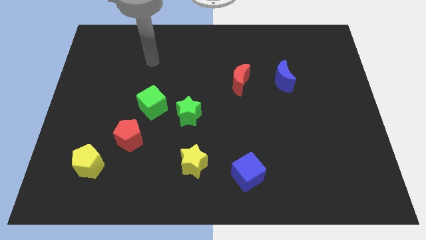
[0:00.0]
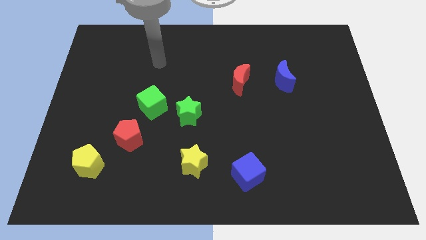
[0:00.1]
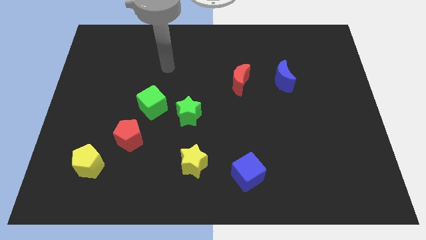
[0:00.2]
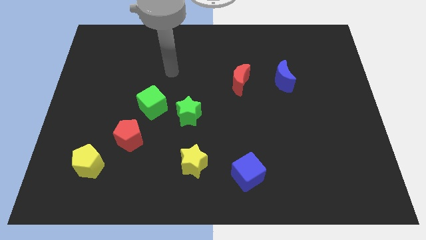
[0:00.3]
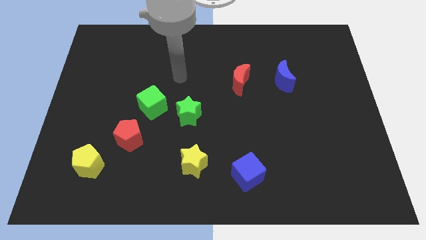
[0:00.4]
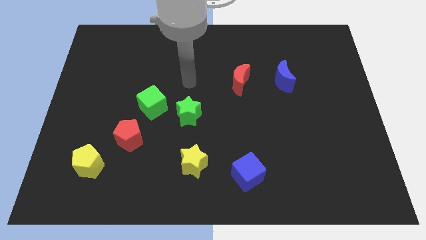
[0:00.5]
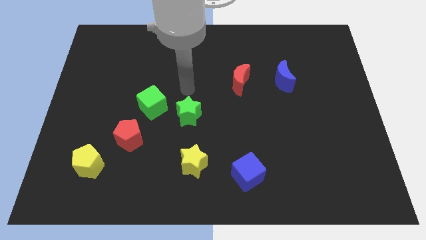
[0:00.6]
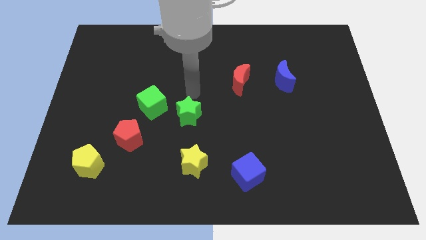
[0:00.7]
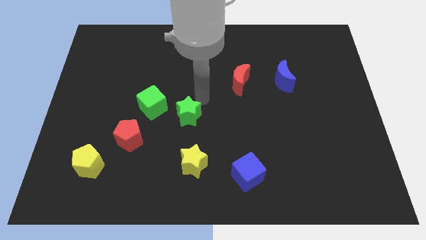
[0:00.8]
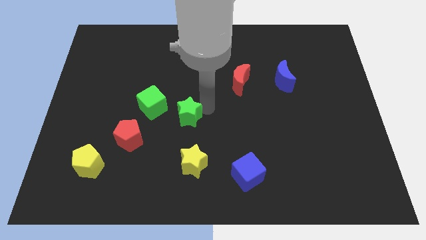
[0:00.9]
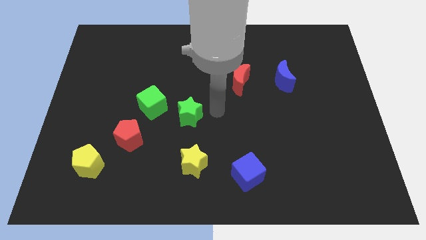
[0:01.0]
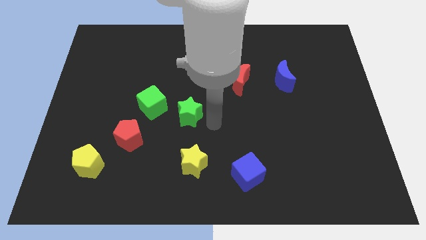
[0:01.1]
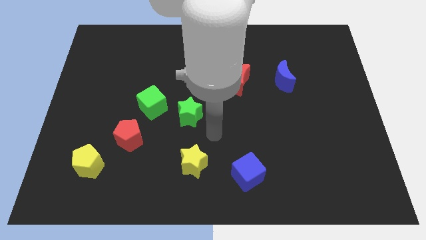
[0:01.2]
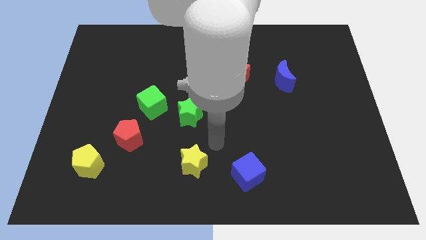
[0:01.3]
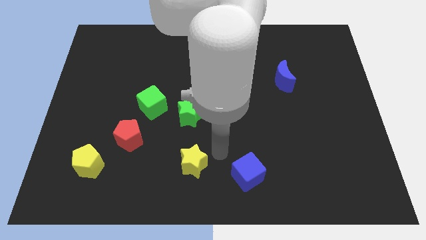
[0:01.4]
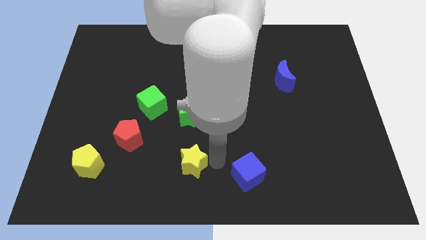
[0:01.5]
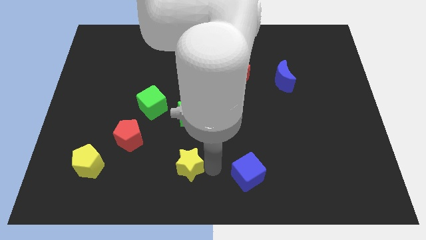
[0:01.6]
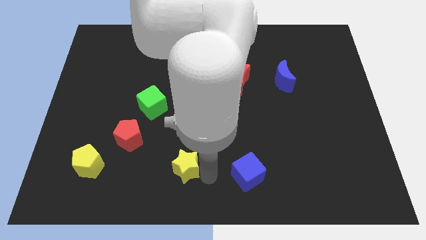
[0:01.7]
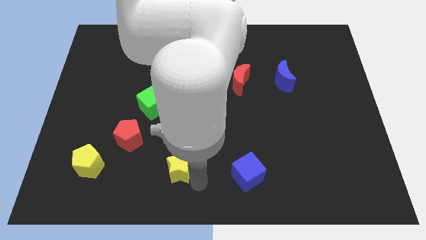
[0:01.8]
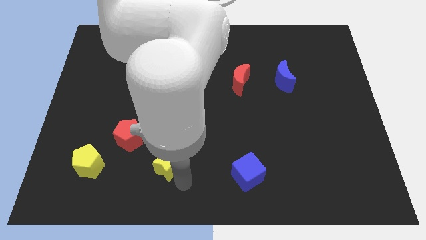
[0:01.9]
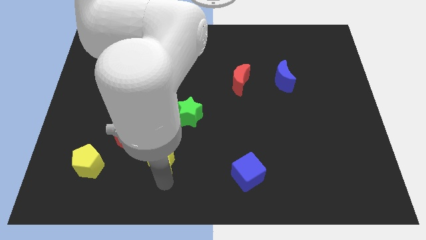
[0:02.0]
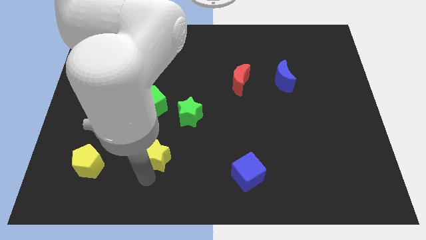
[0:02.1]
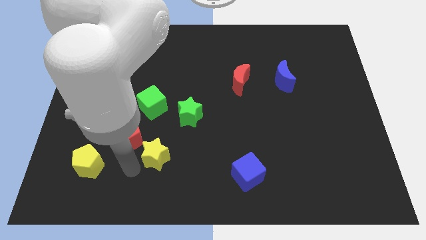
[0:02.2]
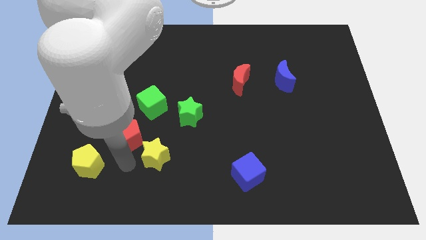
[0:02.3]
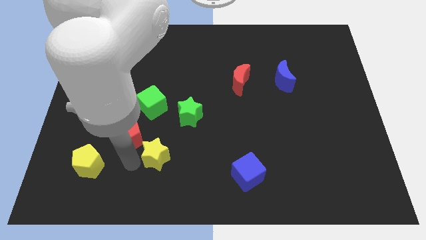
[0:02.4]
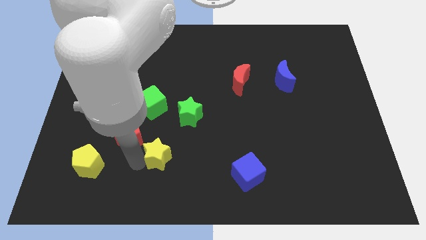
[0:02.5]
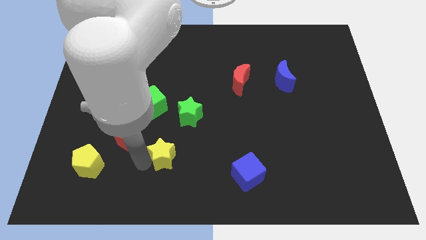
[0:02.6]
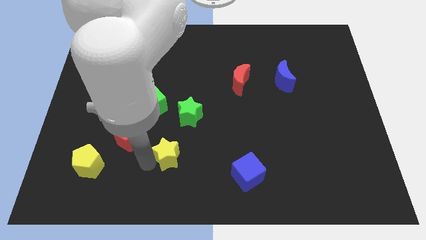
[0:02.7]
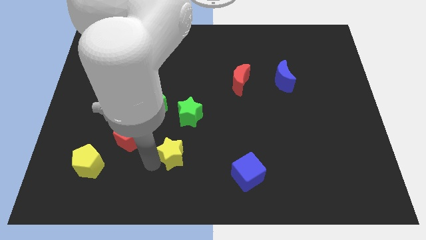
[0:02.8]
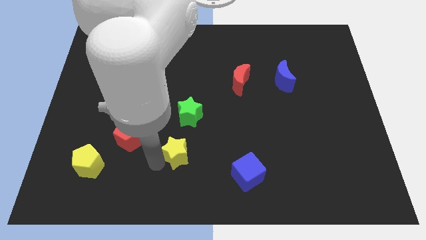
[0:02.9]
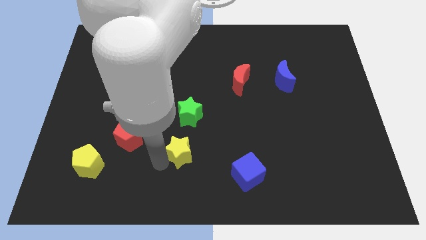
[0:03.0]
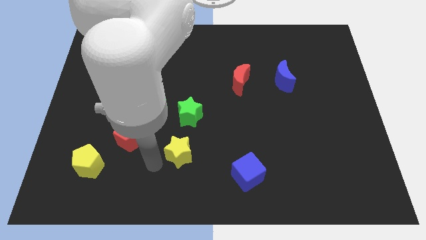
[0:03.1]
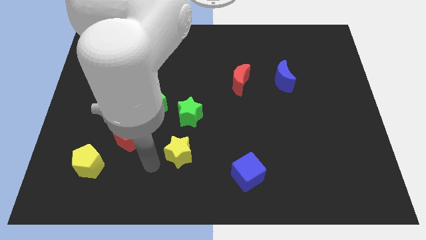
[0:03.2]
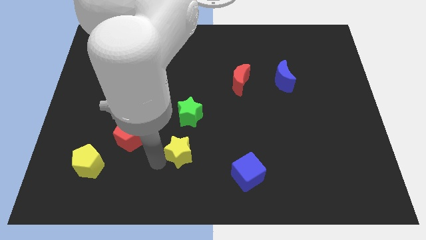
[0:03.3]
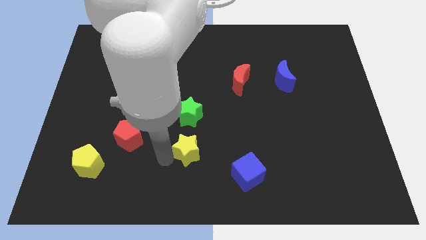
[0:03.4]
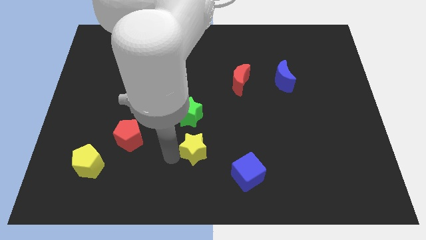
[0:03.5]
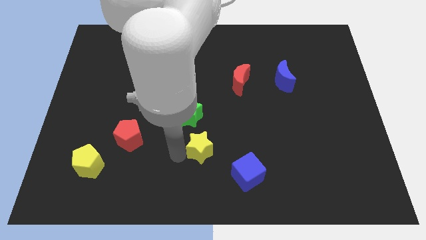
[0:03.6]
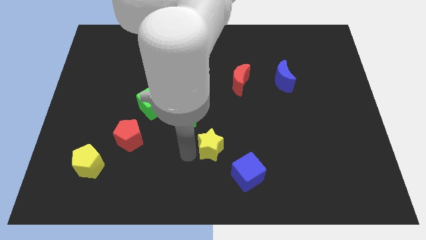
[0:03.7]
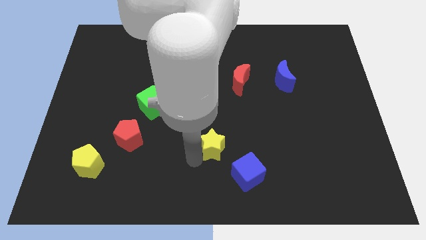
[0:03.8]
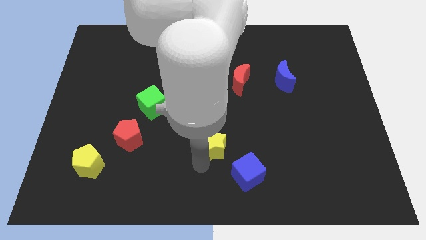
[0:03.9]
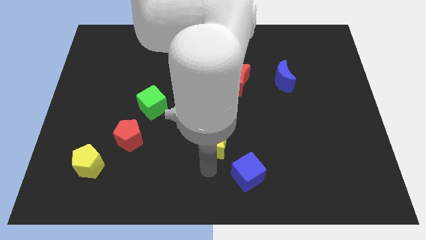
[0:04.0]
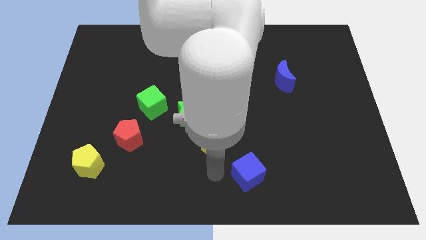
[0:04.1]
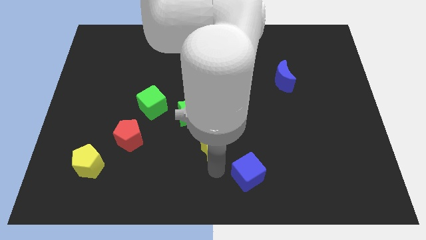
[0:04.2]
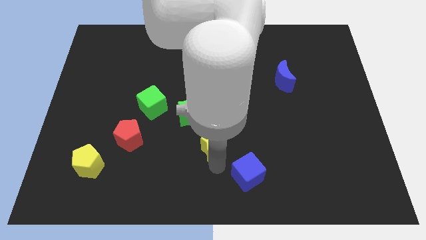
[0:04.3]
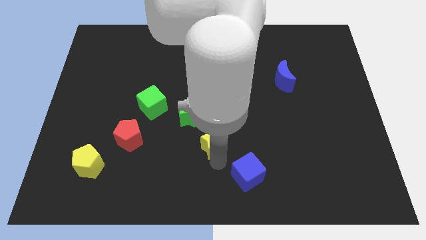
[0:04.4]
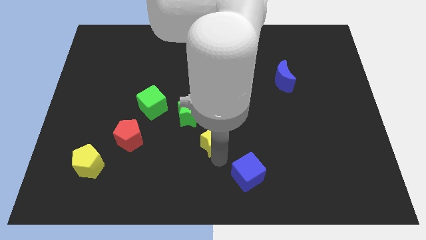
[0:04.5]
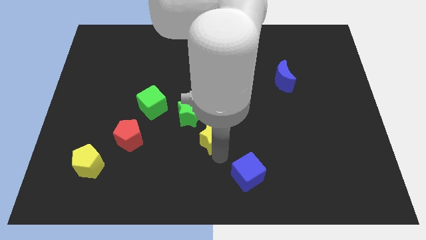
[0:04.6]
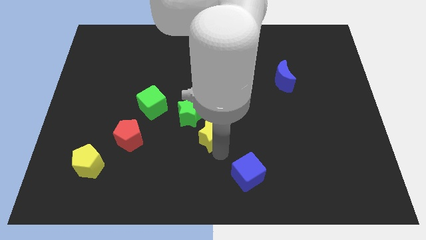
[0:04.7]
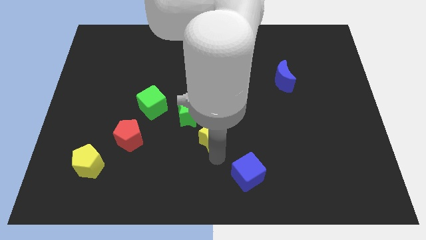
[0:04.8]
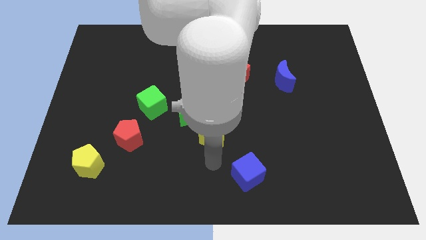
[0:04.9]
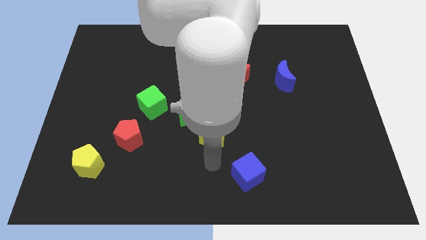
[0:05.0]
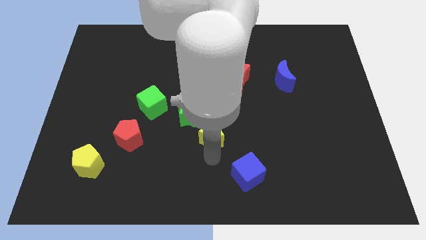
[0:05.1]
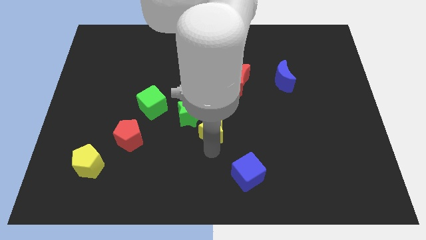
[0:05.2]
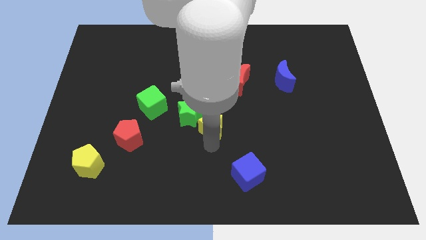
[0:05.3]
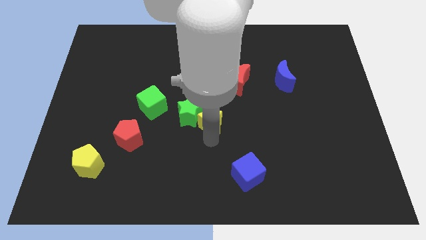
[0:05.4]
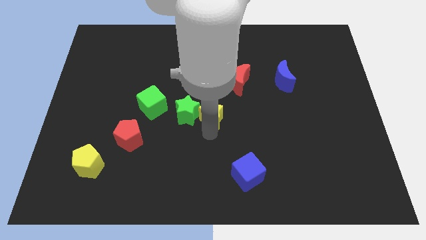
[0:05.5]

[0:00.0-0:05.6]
push the yellow star diagonally up and to the right of the green star

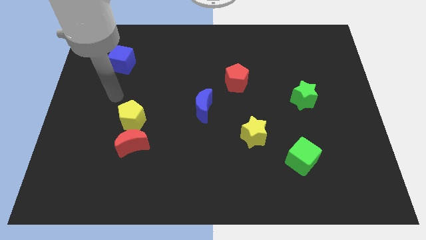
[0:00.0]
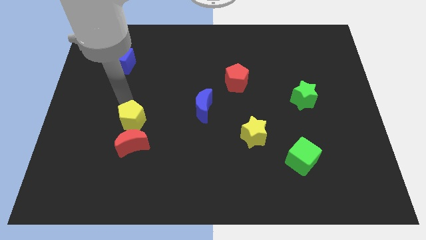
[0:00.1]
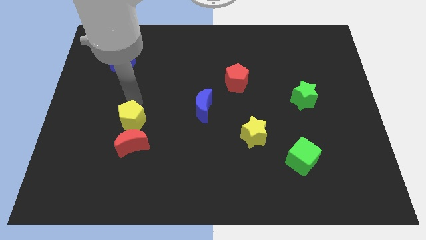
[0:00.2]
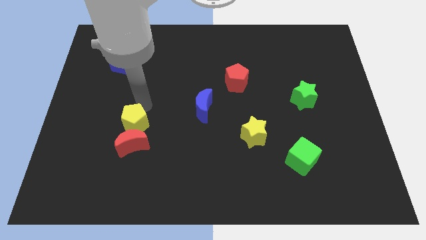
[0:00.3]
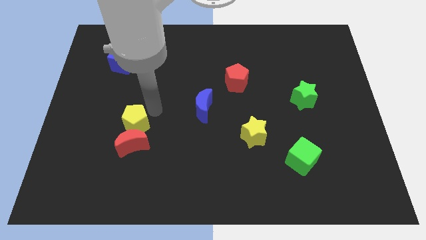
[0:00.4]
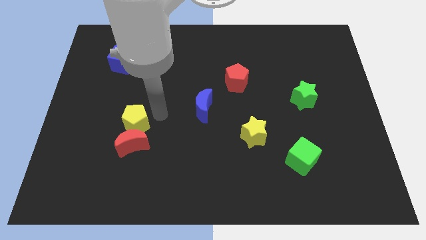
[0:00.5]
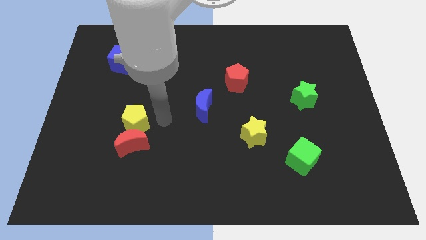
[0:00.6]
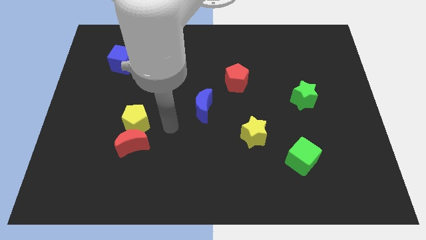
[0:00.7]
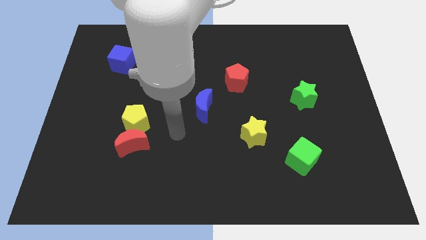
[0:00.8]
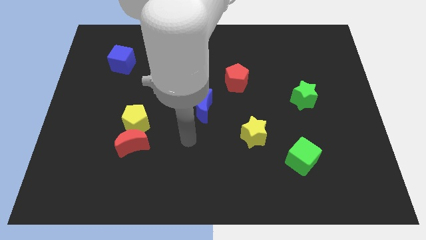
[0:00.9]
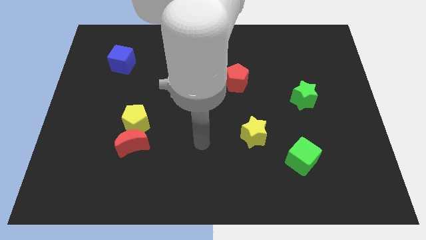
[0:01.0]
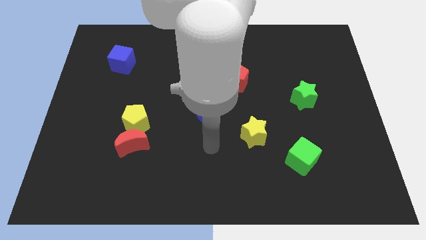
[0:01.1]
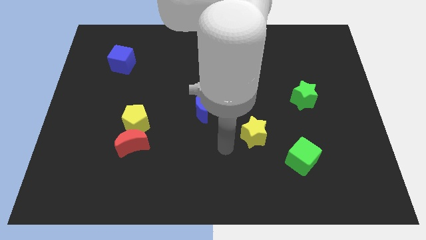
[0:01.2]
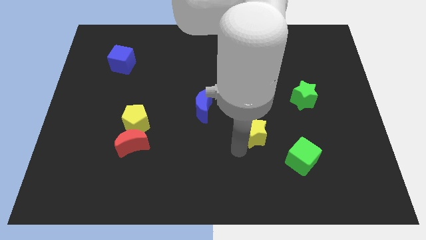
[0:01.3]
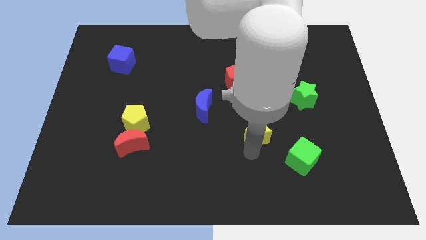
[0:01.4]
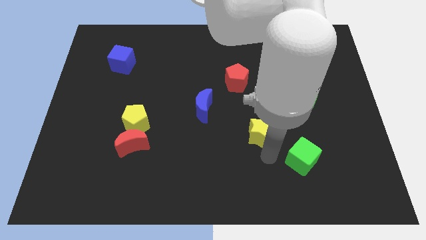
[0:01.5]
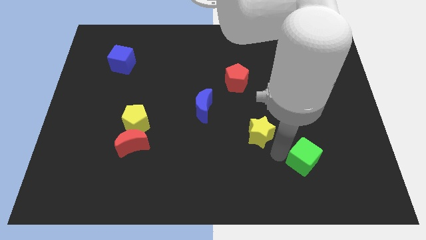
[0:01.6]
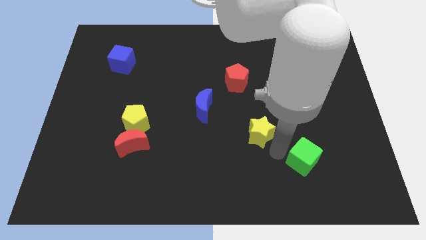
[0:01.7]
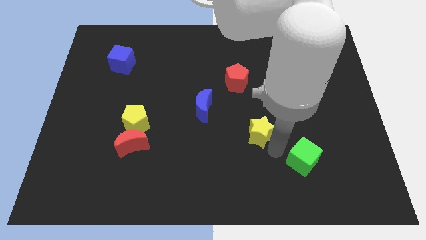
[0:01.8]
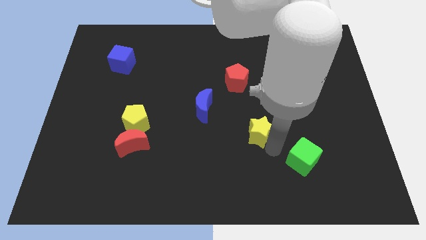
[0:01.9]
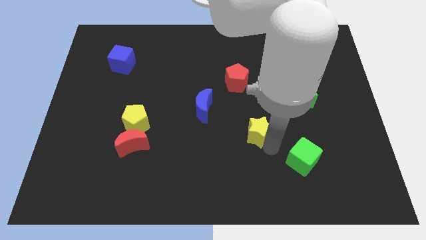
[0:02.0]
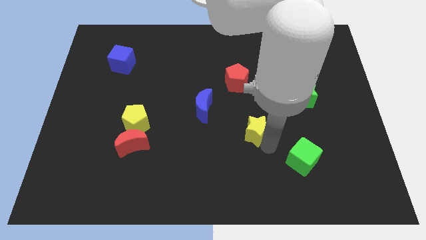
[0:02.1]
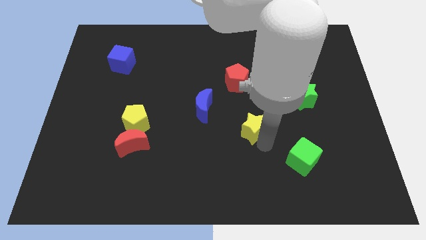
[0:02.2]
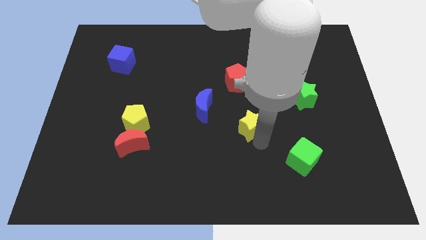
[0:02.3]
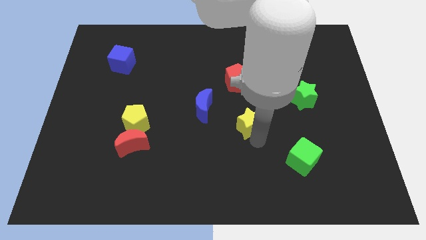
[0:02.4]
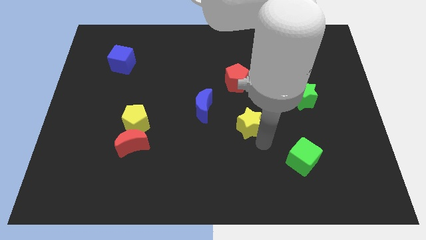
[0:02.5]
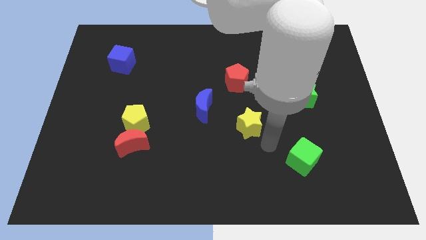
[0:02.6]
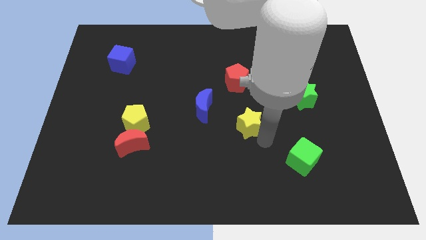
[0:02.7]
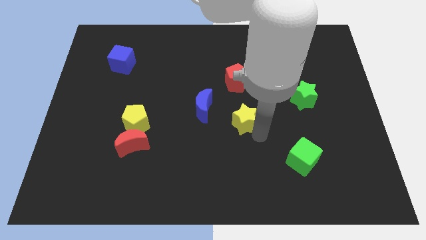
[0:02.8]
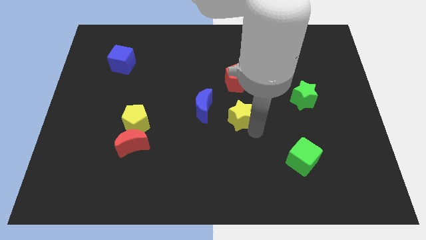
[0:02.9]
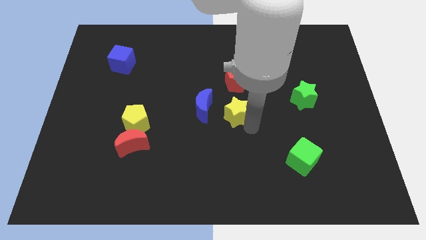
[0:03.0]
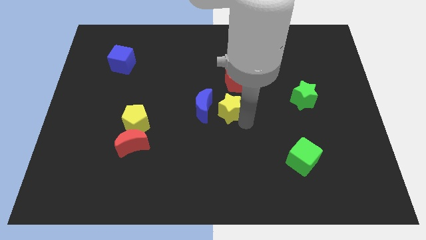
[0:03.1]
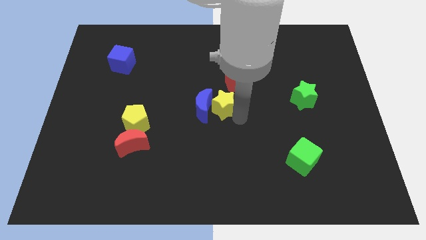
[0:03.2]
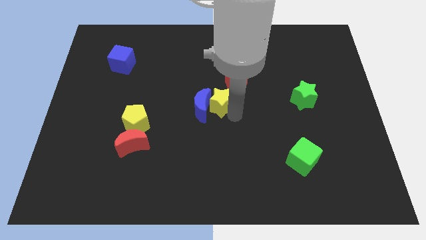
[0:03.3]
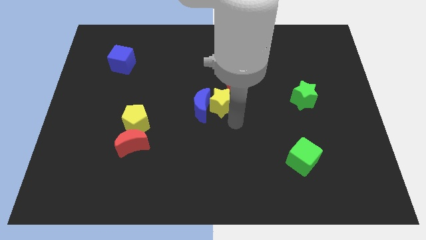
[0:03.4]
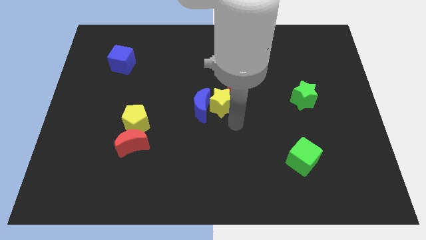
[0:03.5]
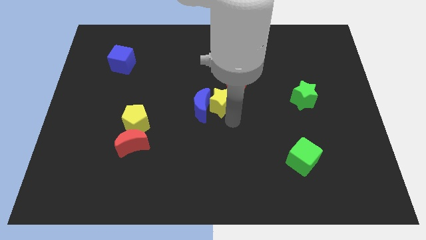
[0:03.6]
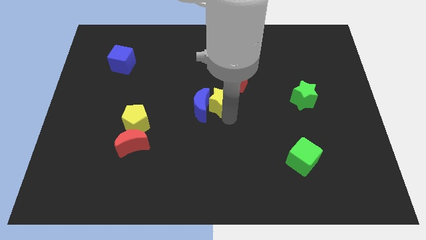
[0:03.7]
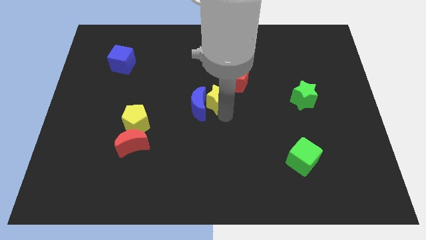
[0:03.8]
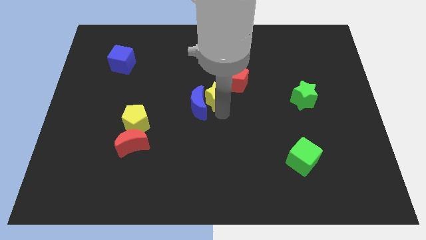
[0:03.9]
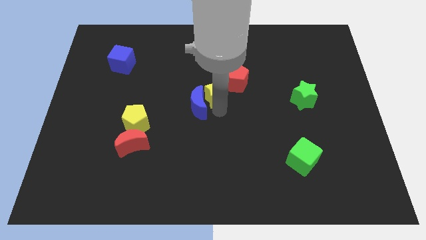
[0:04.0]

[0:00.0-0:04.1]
move the yellow star to the top side of the blue moon
